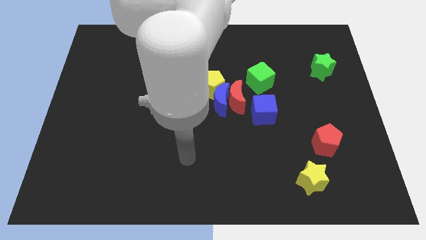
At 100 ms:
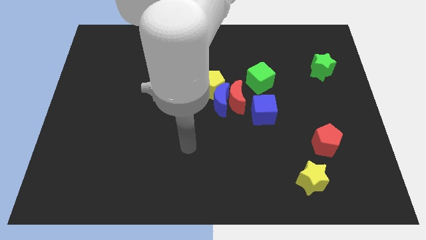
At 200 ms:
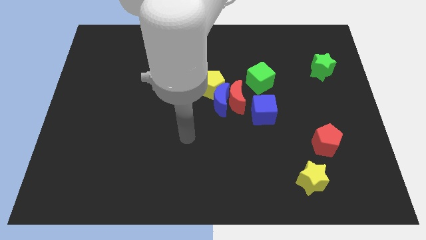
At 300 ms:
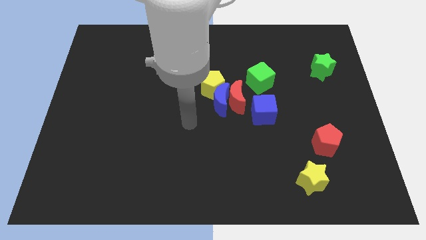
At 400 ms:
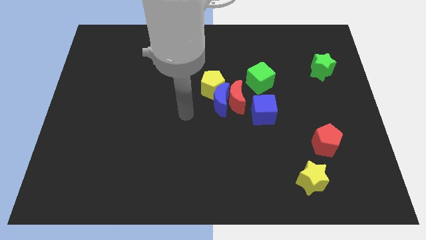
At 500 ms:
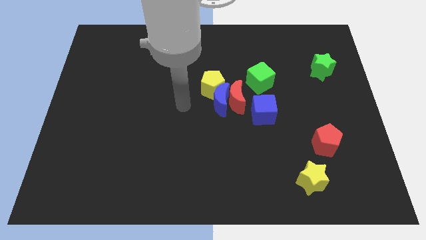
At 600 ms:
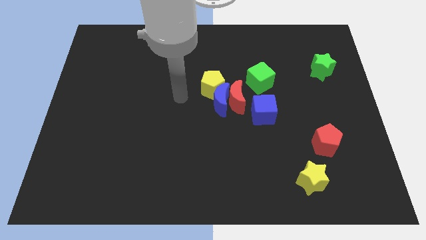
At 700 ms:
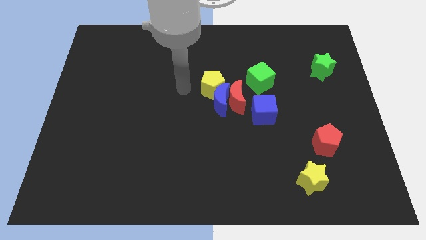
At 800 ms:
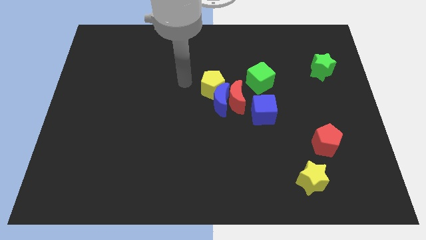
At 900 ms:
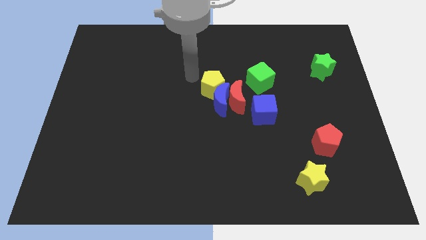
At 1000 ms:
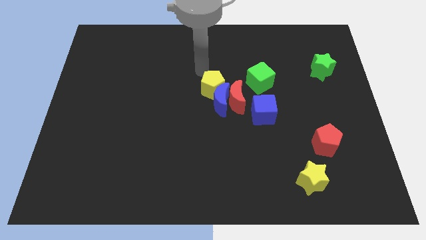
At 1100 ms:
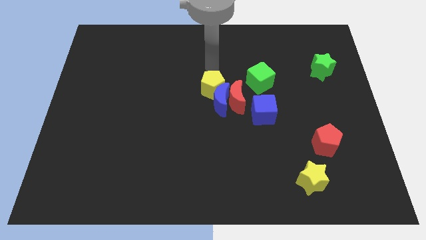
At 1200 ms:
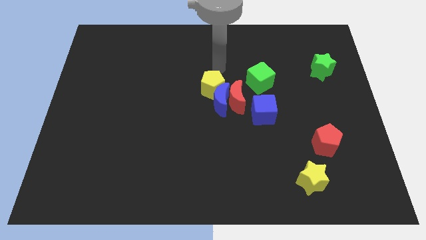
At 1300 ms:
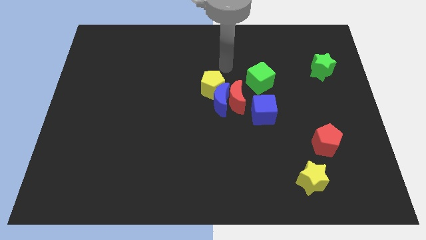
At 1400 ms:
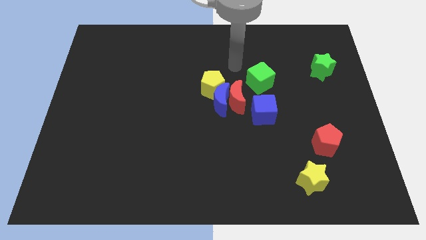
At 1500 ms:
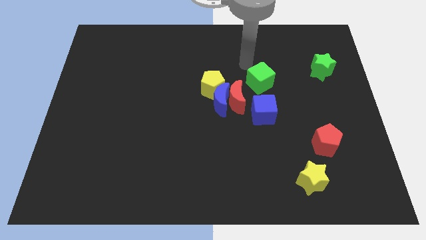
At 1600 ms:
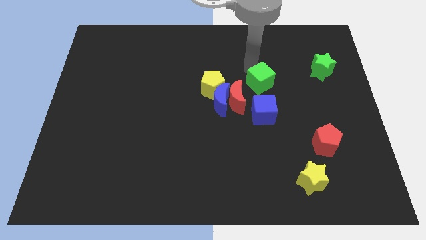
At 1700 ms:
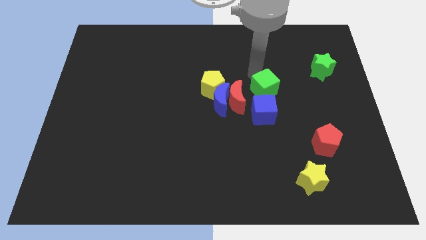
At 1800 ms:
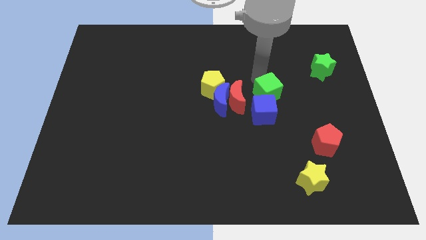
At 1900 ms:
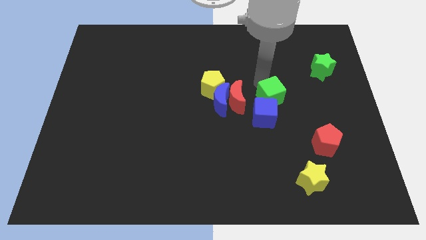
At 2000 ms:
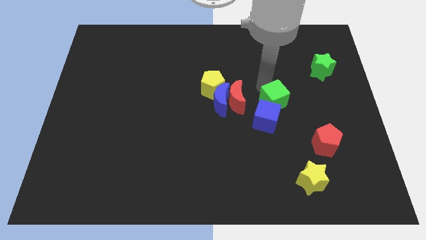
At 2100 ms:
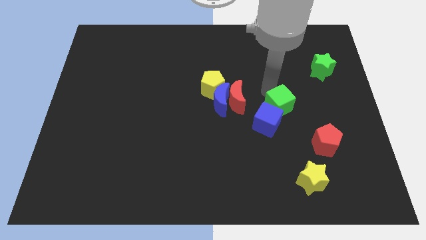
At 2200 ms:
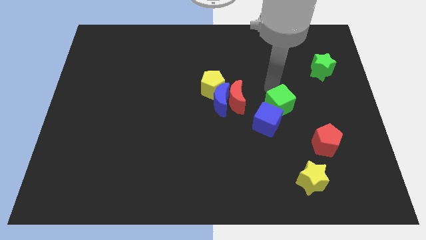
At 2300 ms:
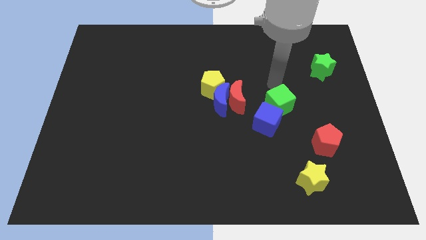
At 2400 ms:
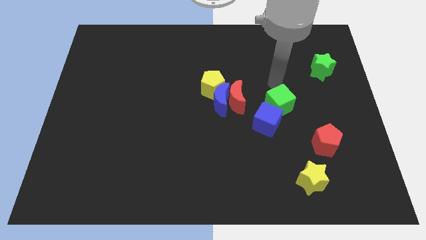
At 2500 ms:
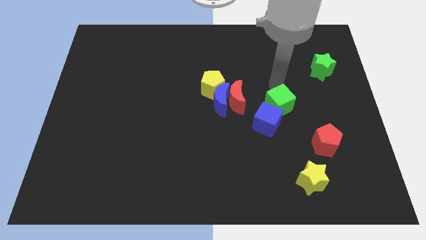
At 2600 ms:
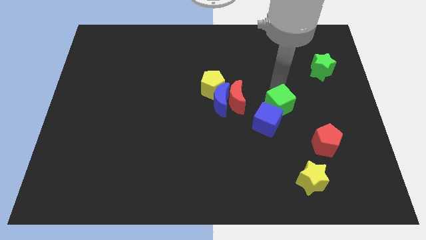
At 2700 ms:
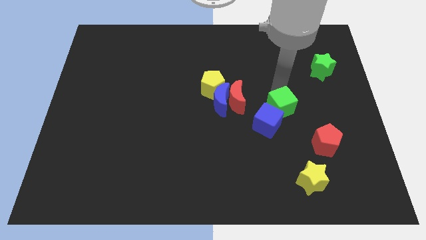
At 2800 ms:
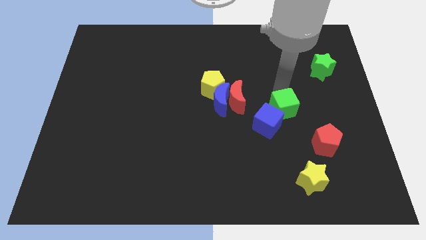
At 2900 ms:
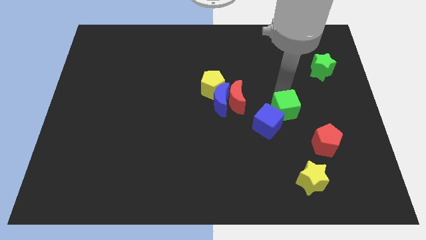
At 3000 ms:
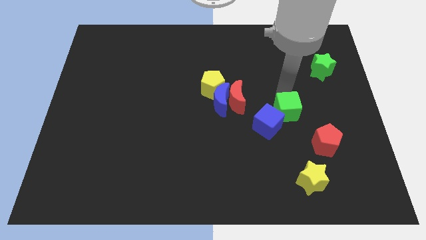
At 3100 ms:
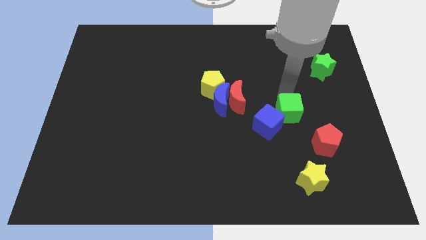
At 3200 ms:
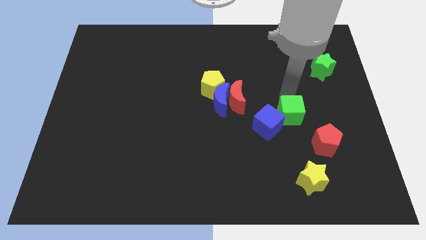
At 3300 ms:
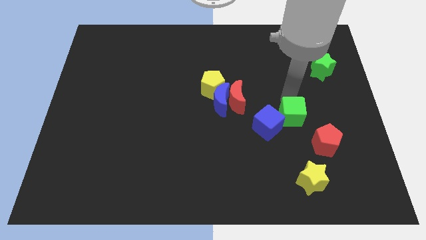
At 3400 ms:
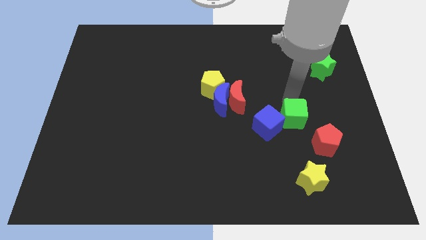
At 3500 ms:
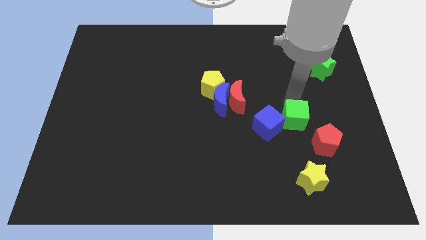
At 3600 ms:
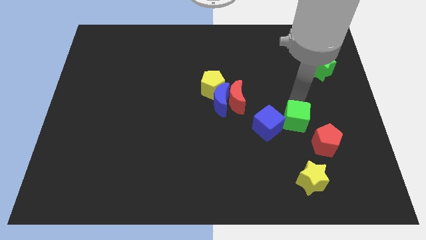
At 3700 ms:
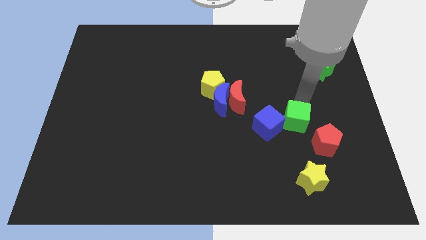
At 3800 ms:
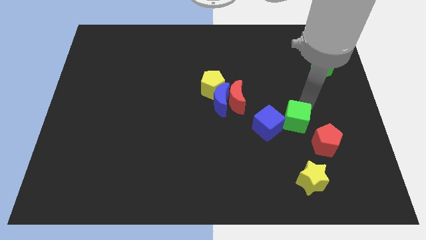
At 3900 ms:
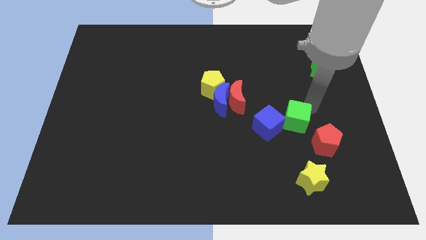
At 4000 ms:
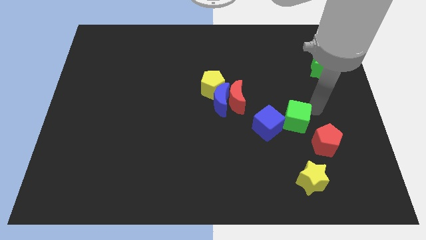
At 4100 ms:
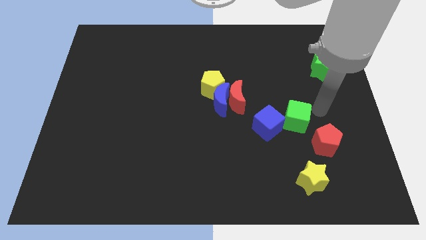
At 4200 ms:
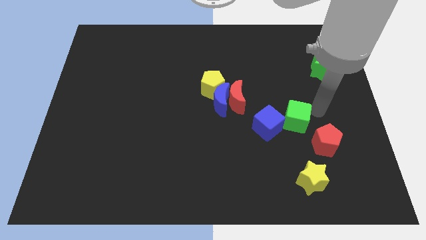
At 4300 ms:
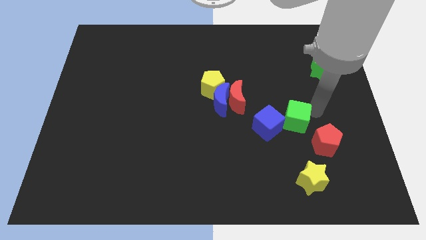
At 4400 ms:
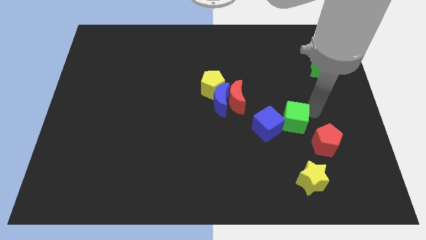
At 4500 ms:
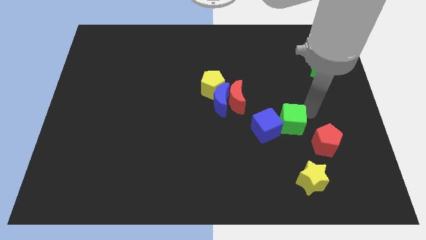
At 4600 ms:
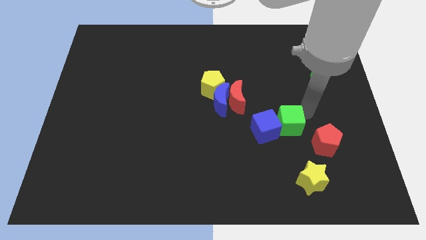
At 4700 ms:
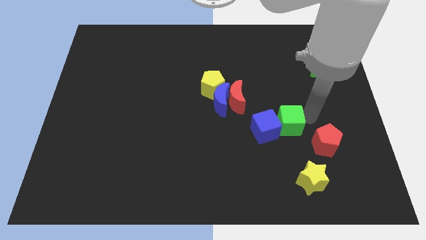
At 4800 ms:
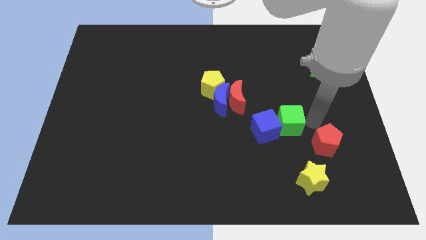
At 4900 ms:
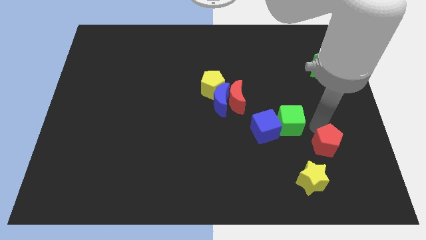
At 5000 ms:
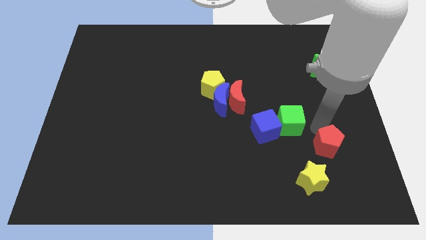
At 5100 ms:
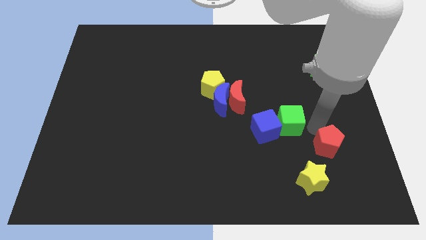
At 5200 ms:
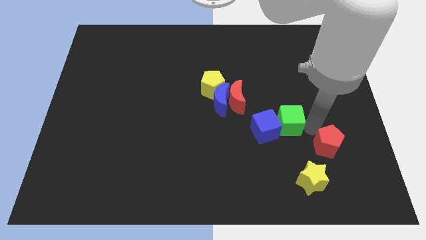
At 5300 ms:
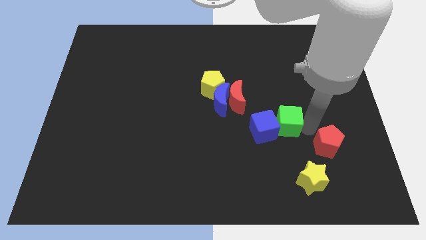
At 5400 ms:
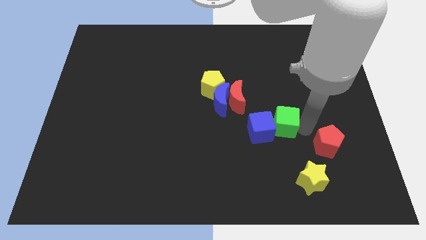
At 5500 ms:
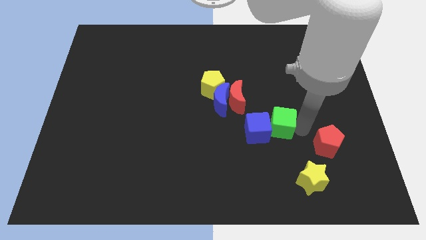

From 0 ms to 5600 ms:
slide the green cube to the bottom right of the red moon

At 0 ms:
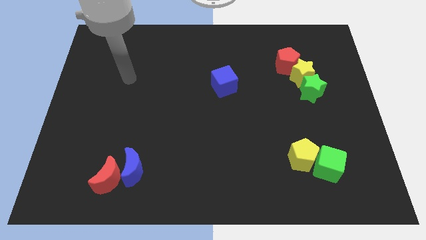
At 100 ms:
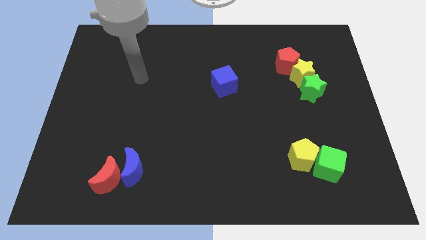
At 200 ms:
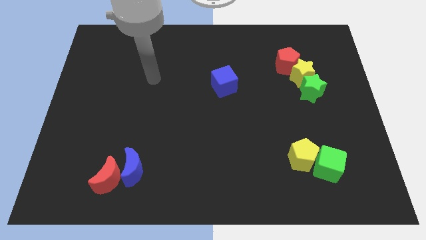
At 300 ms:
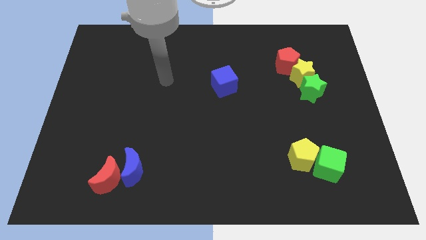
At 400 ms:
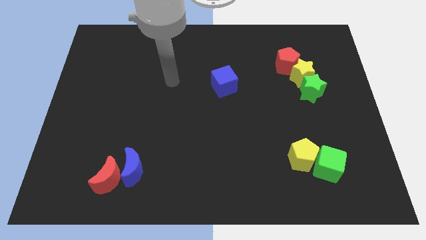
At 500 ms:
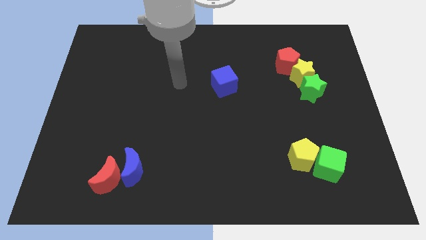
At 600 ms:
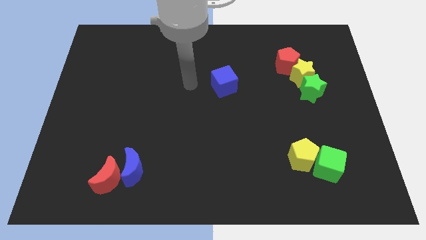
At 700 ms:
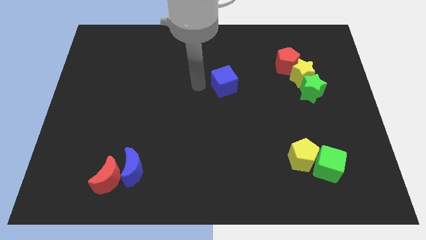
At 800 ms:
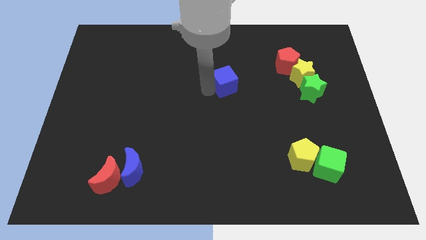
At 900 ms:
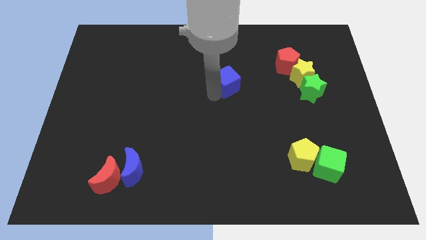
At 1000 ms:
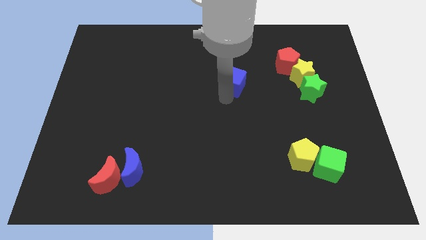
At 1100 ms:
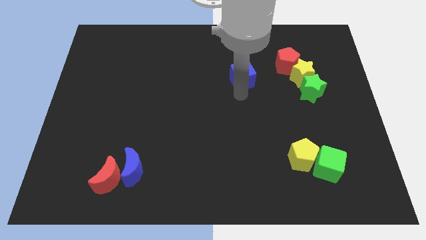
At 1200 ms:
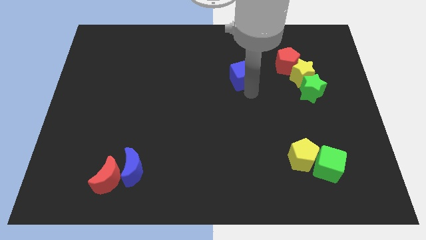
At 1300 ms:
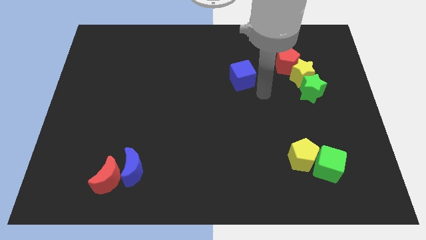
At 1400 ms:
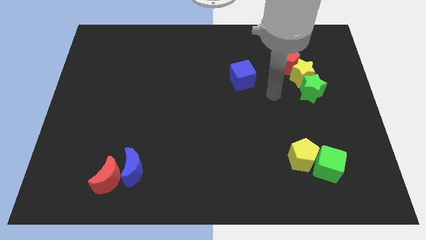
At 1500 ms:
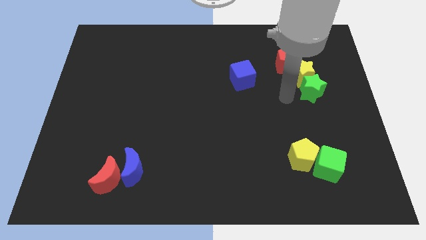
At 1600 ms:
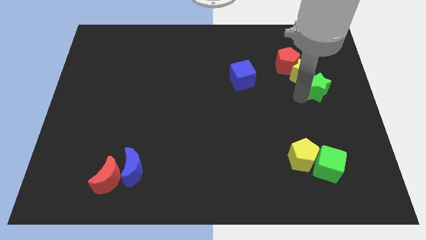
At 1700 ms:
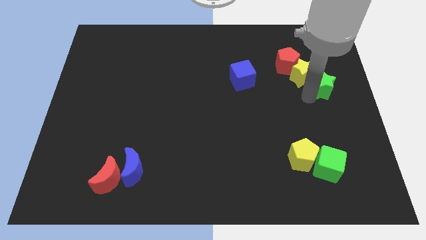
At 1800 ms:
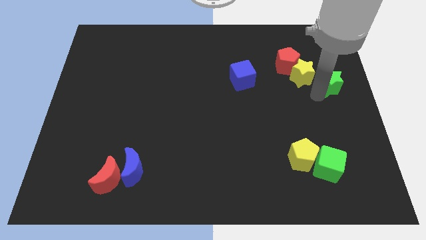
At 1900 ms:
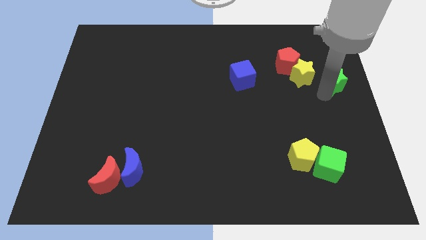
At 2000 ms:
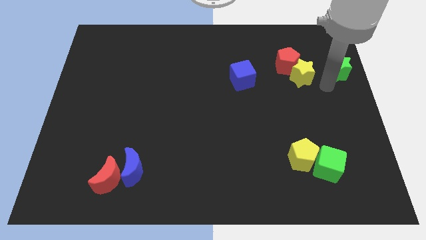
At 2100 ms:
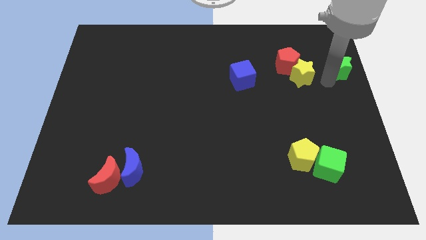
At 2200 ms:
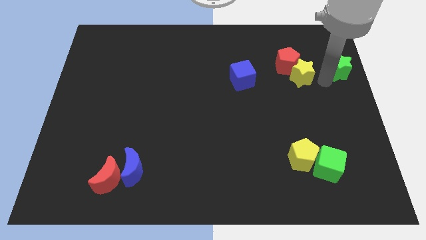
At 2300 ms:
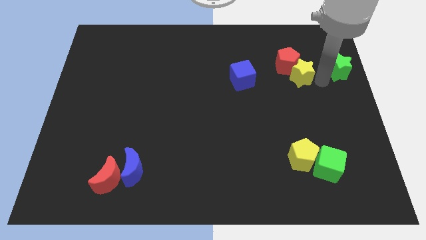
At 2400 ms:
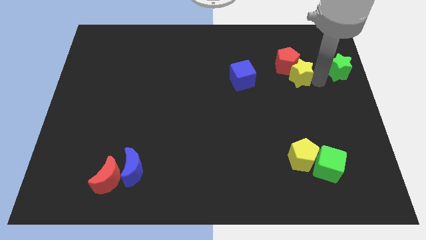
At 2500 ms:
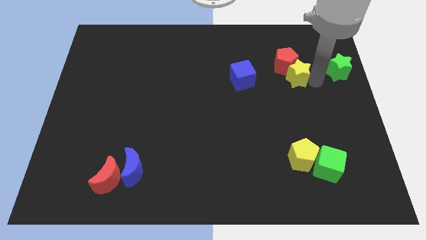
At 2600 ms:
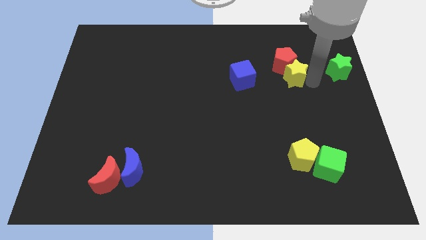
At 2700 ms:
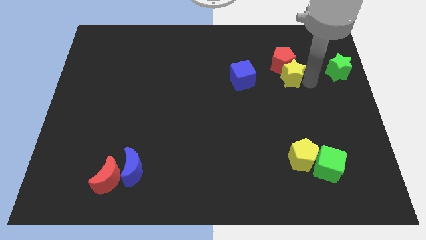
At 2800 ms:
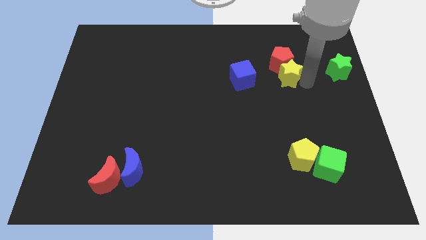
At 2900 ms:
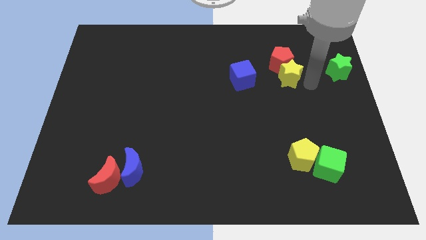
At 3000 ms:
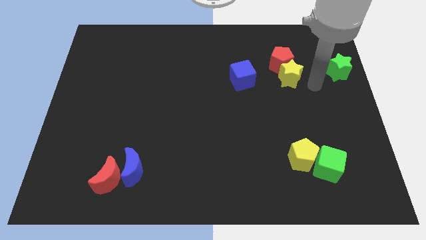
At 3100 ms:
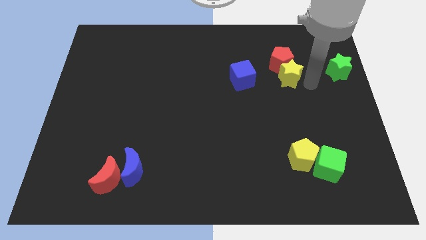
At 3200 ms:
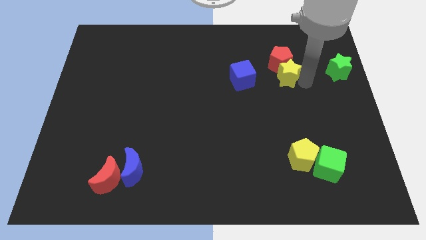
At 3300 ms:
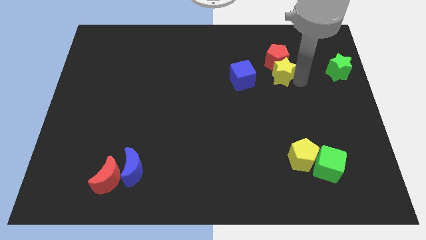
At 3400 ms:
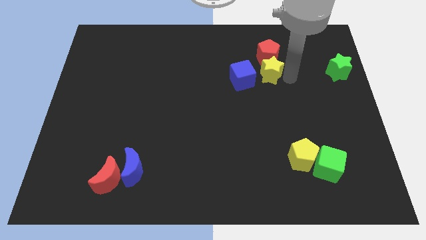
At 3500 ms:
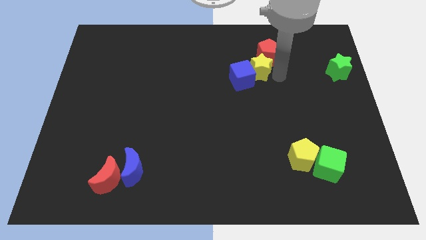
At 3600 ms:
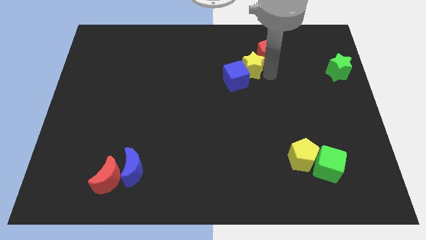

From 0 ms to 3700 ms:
slide the yellow star to the left of the red pentagon
